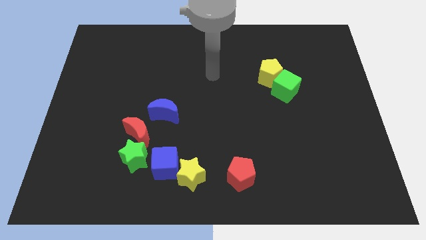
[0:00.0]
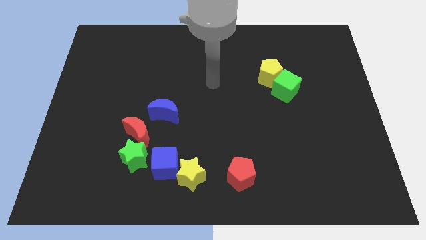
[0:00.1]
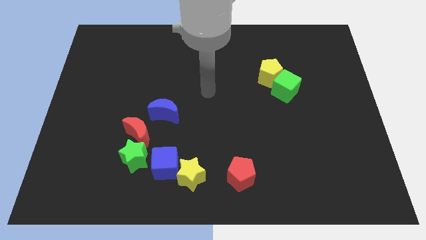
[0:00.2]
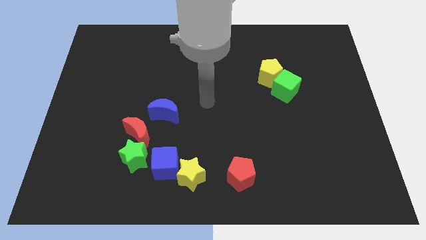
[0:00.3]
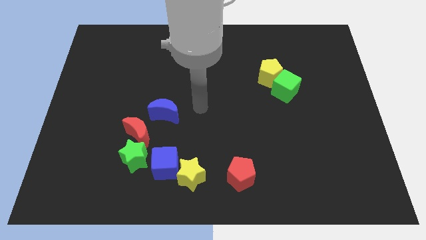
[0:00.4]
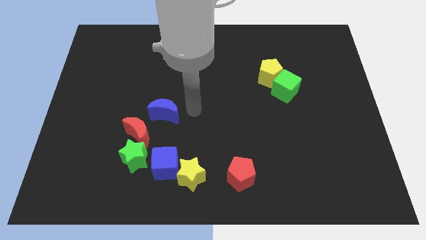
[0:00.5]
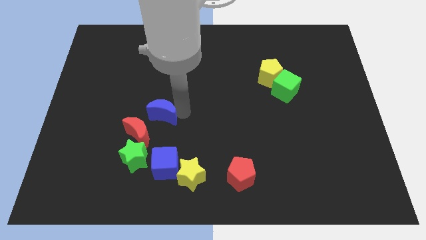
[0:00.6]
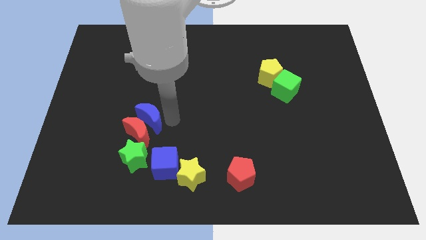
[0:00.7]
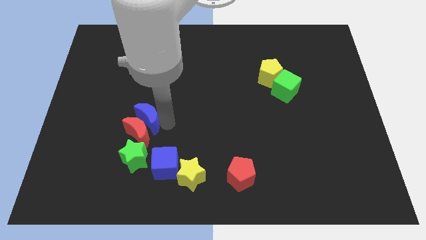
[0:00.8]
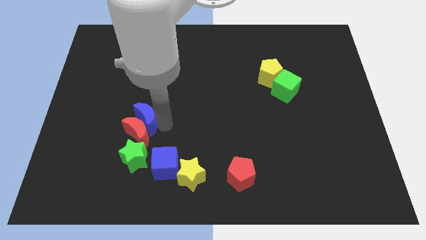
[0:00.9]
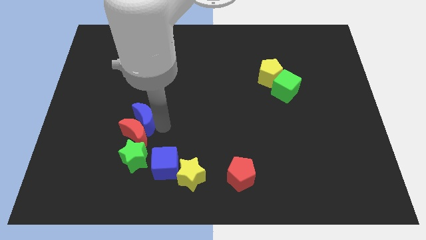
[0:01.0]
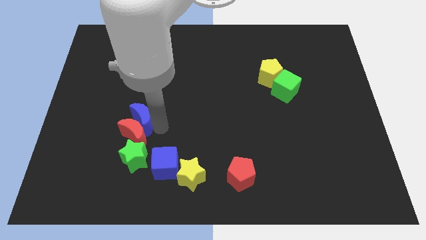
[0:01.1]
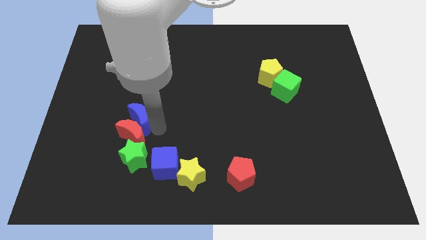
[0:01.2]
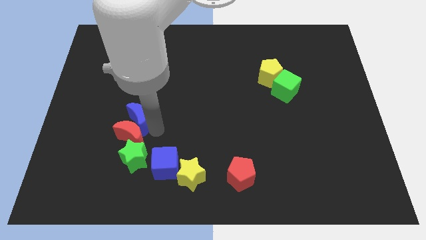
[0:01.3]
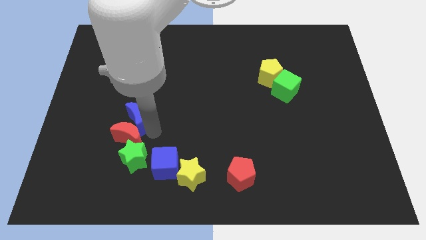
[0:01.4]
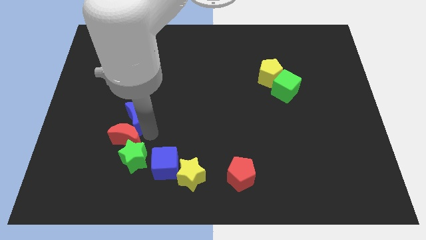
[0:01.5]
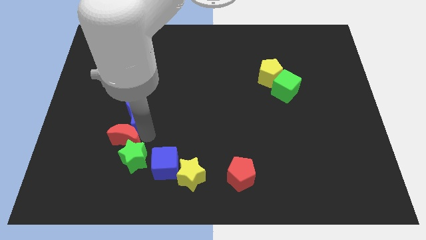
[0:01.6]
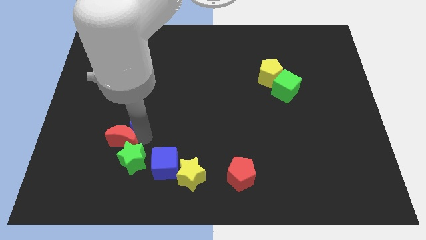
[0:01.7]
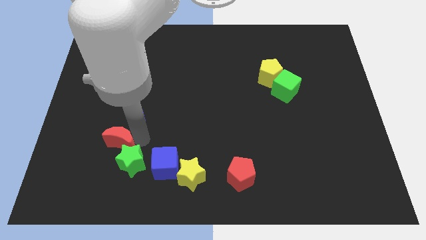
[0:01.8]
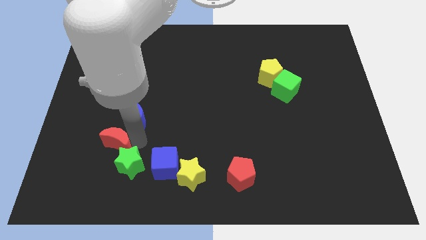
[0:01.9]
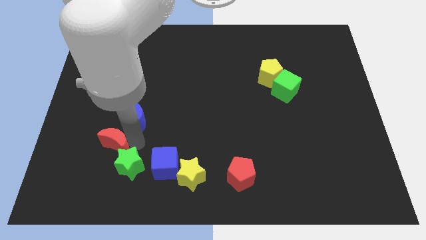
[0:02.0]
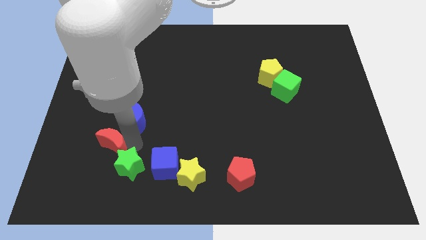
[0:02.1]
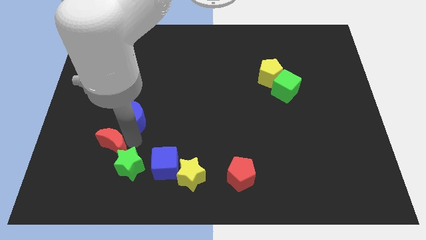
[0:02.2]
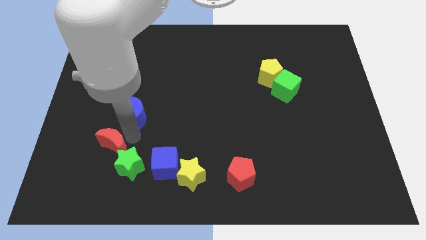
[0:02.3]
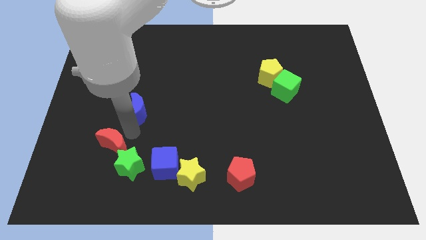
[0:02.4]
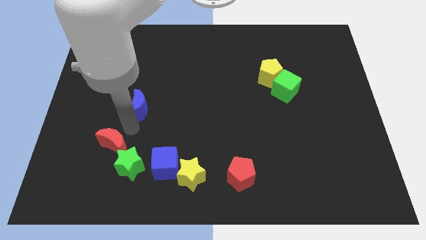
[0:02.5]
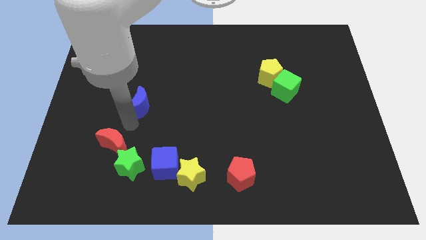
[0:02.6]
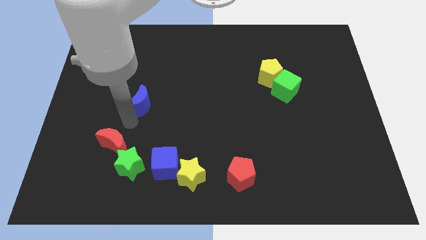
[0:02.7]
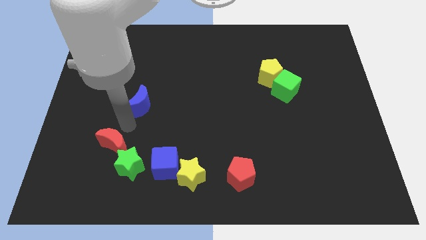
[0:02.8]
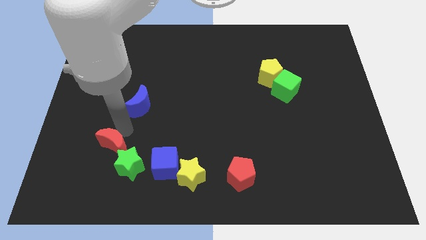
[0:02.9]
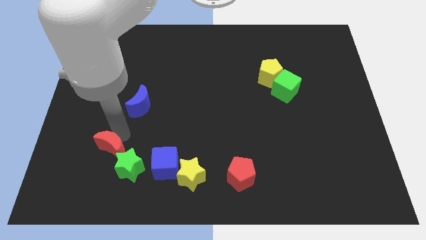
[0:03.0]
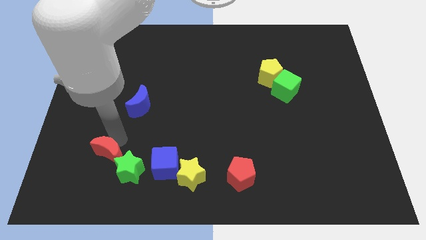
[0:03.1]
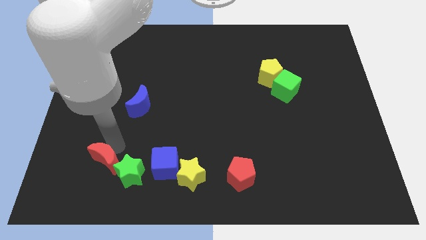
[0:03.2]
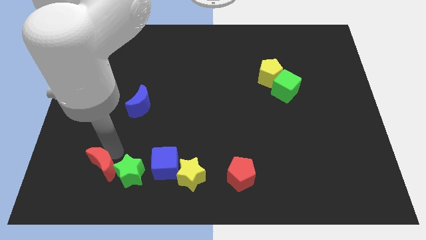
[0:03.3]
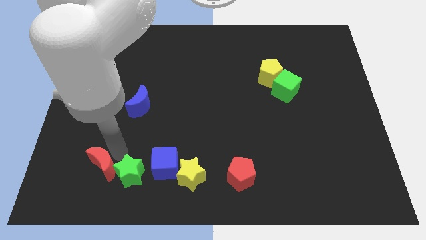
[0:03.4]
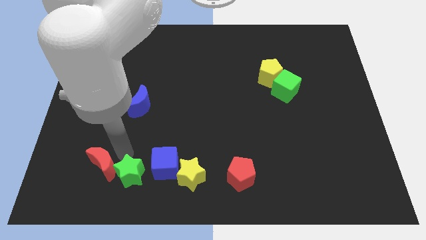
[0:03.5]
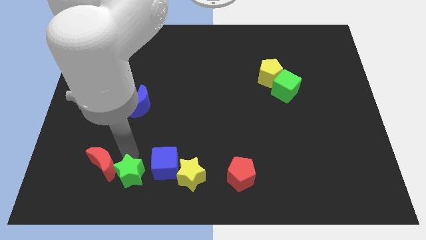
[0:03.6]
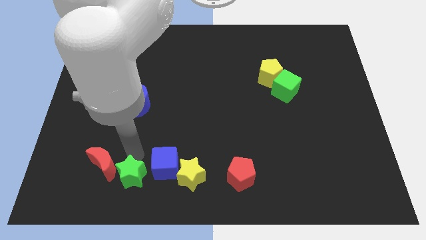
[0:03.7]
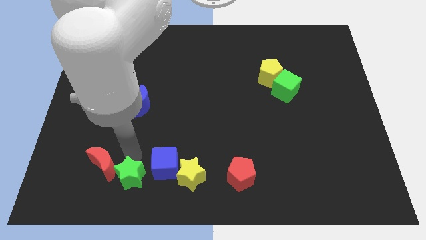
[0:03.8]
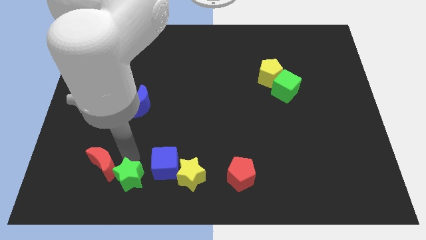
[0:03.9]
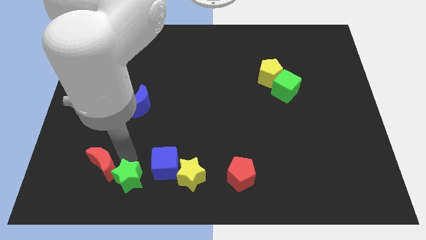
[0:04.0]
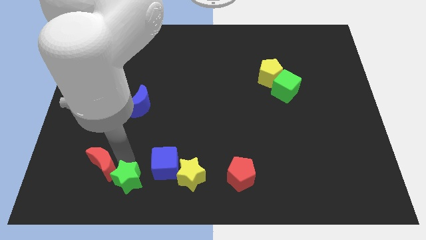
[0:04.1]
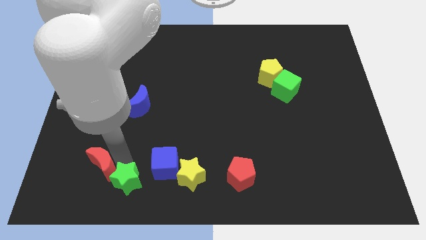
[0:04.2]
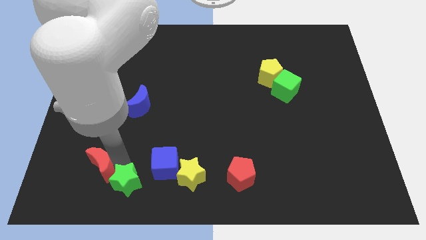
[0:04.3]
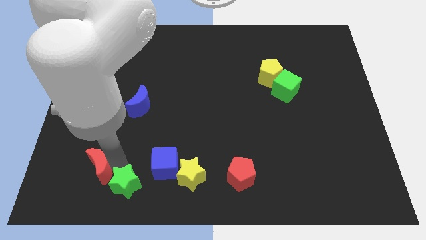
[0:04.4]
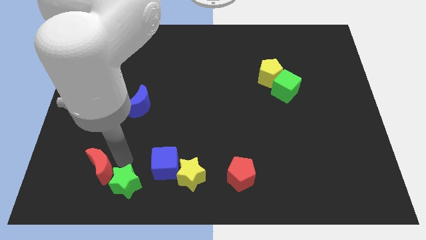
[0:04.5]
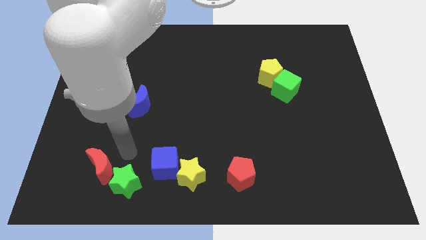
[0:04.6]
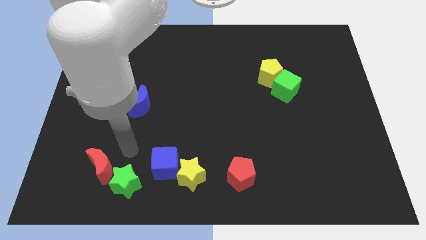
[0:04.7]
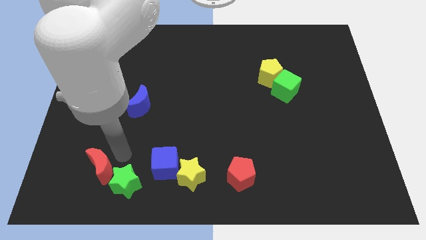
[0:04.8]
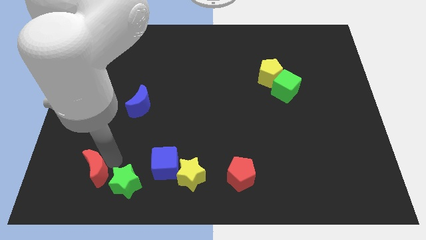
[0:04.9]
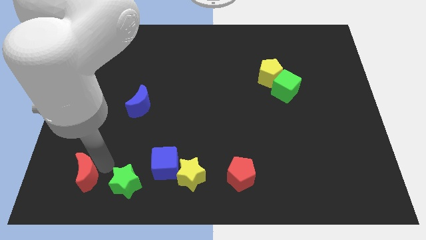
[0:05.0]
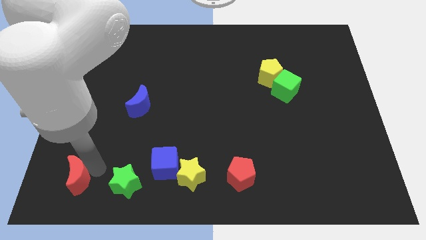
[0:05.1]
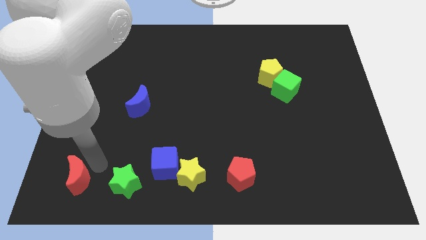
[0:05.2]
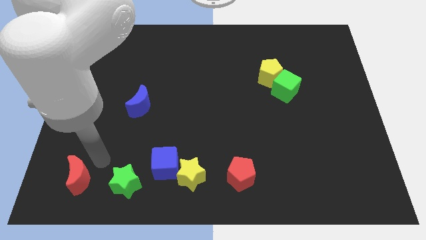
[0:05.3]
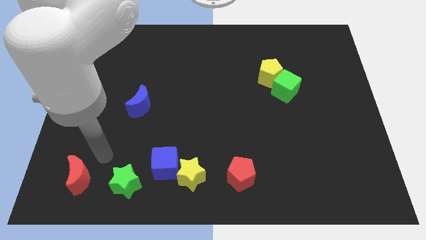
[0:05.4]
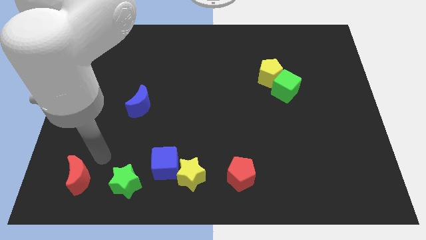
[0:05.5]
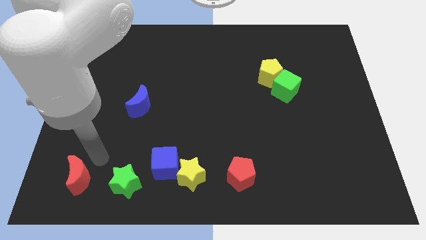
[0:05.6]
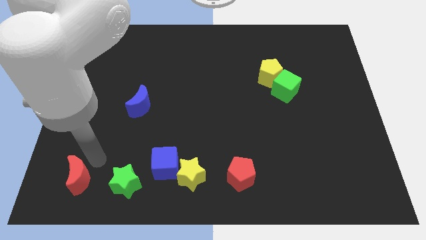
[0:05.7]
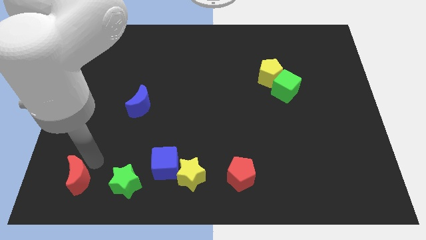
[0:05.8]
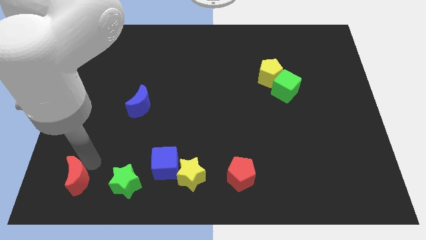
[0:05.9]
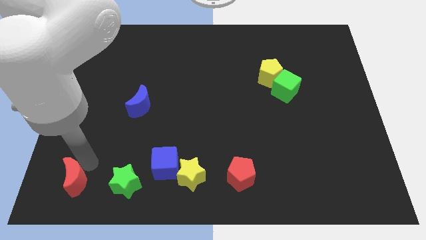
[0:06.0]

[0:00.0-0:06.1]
move the red moon to the bottom left of the board
